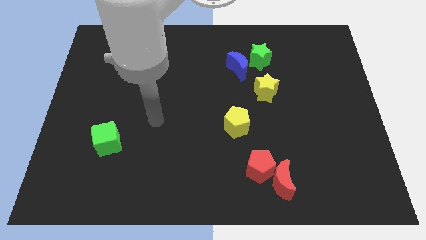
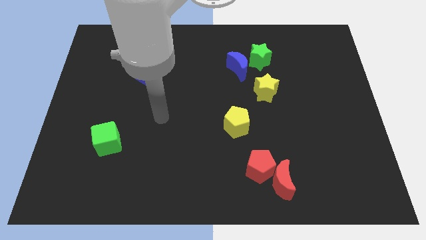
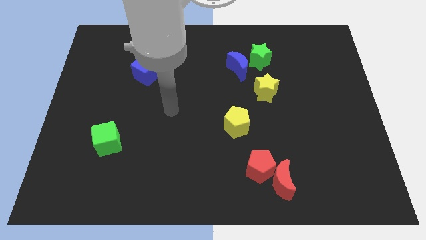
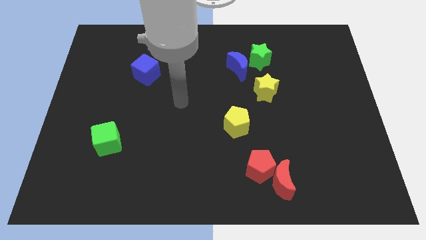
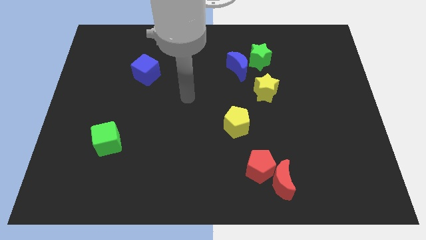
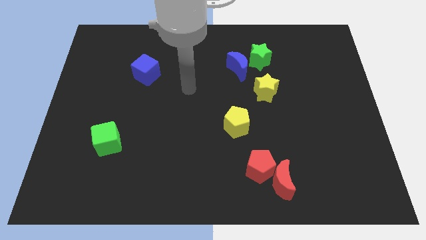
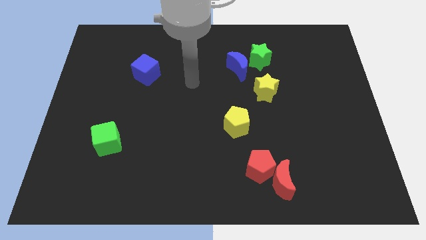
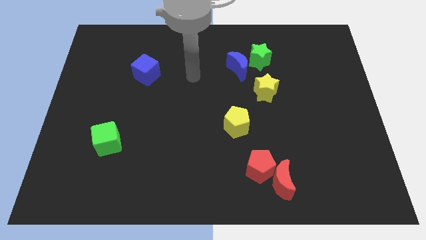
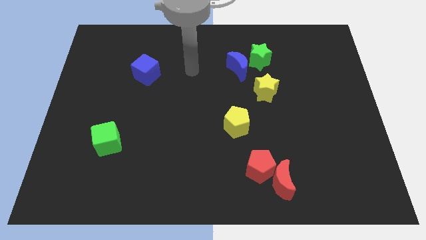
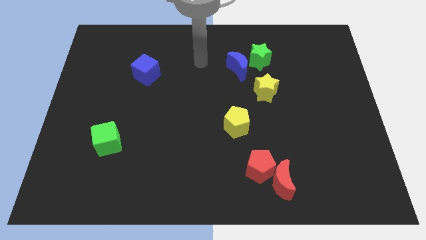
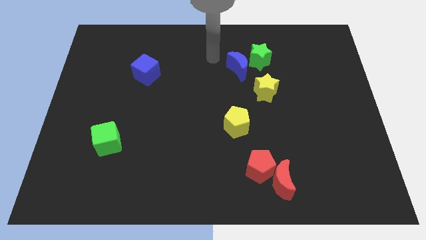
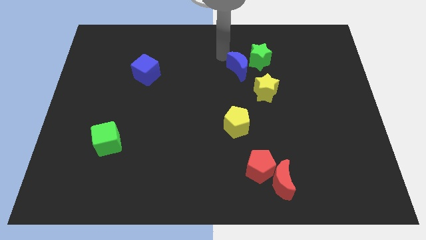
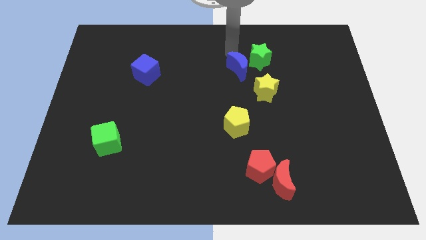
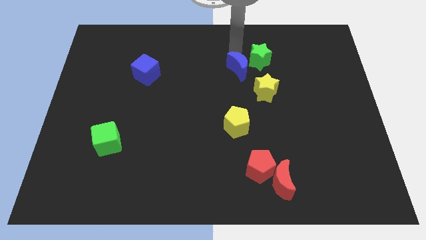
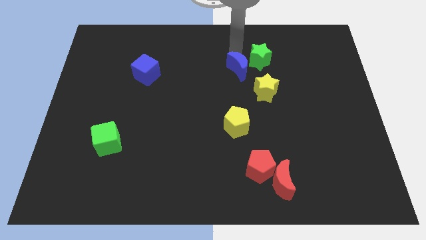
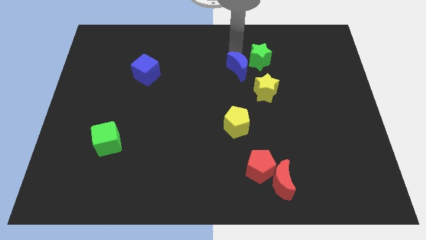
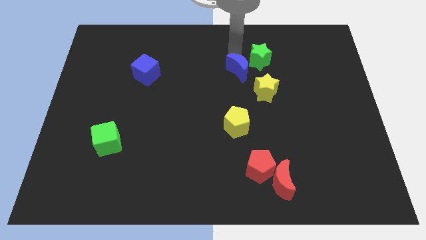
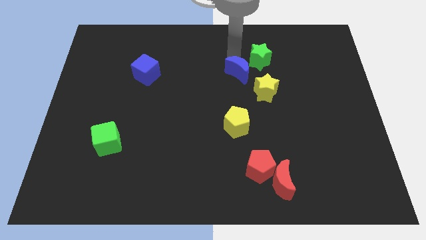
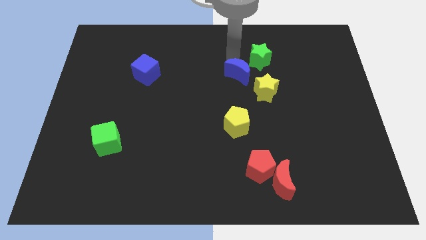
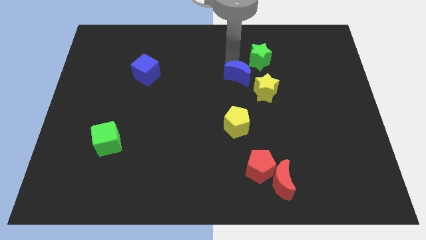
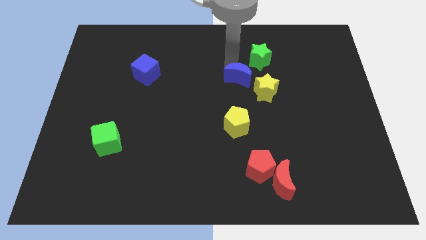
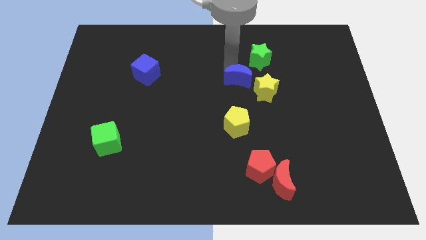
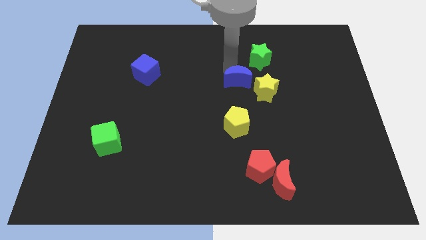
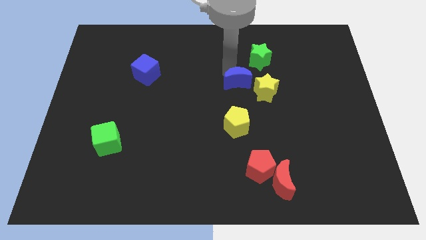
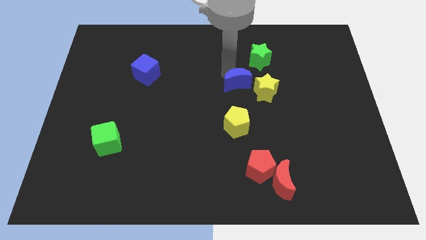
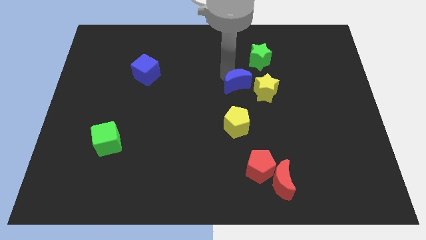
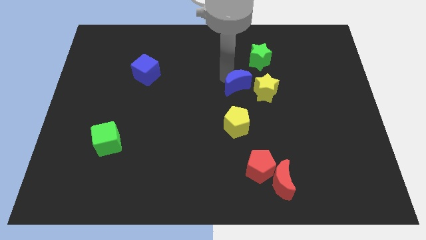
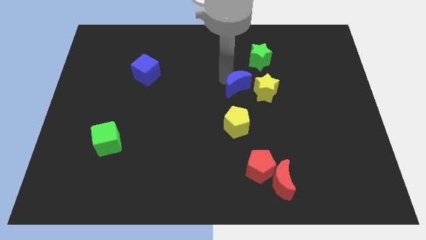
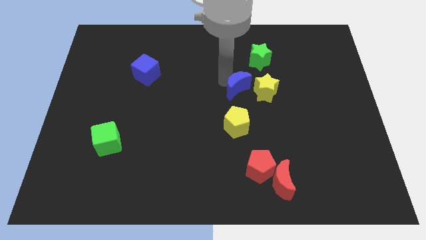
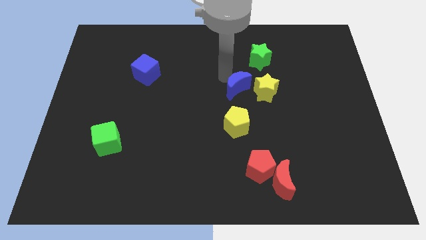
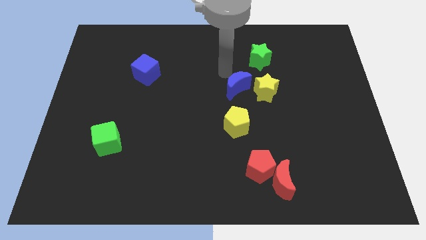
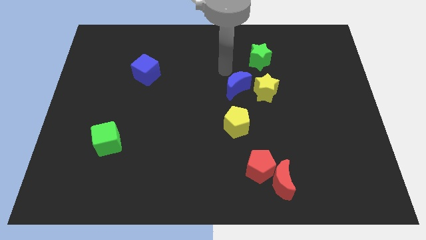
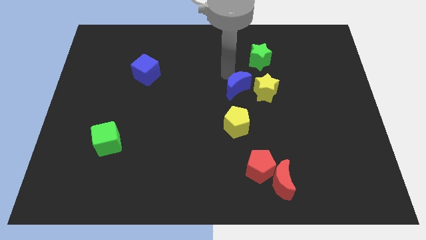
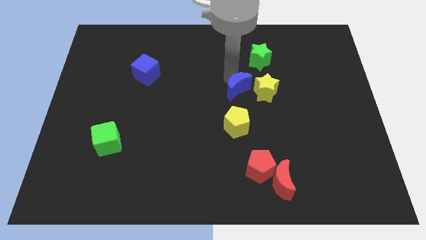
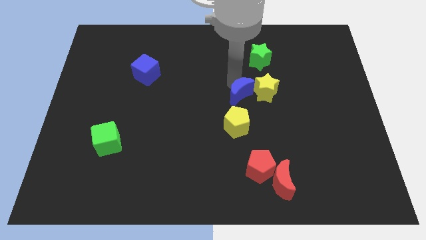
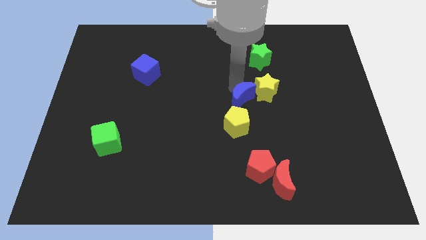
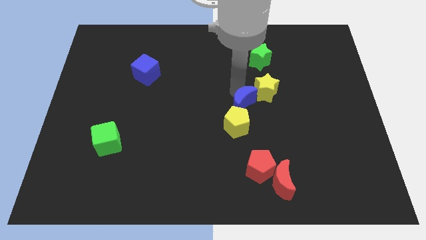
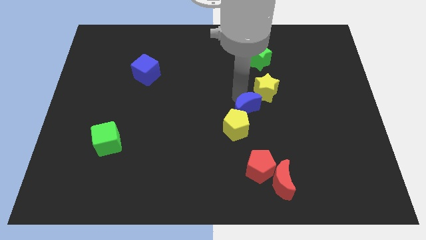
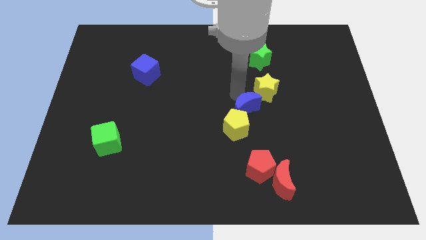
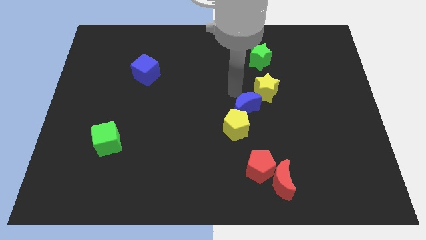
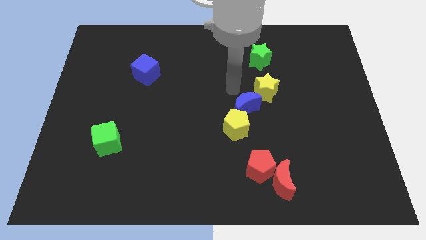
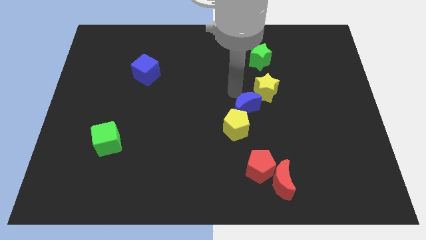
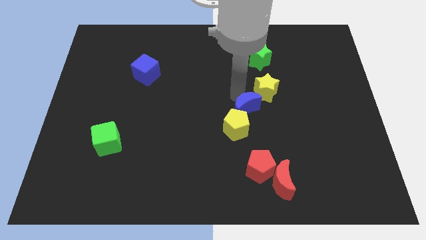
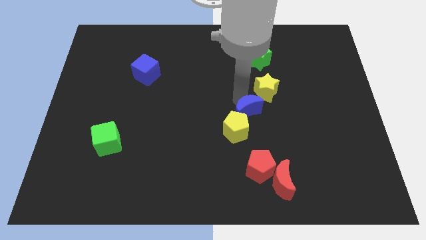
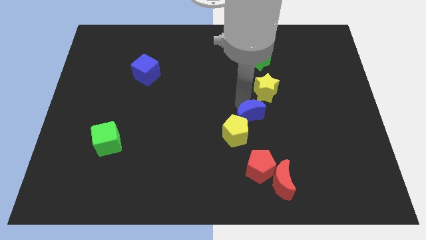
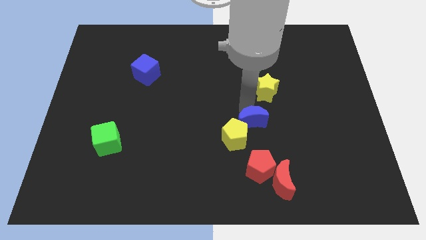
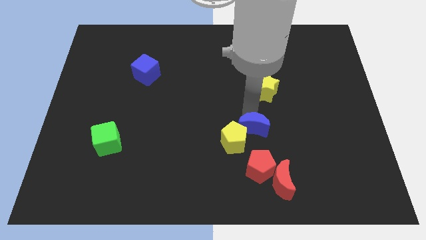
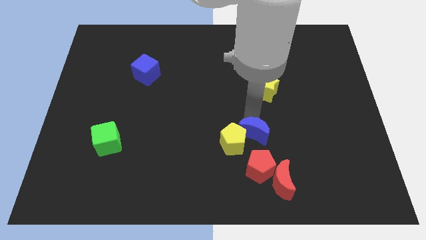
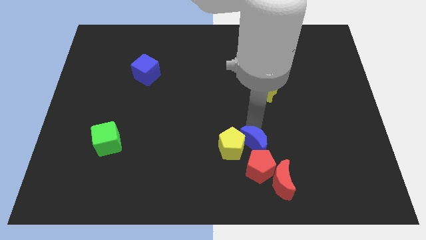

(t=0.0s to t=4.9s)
move the blue moon next to the red pentagon

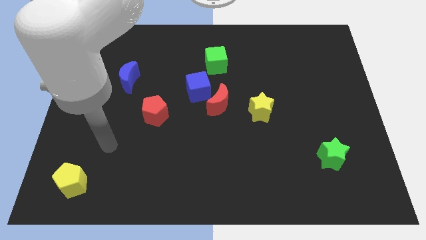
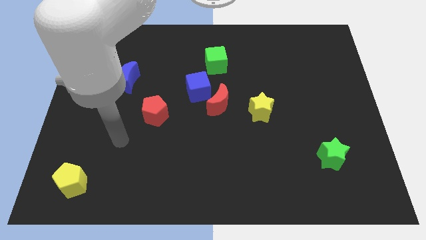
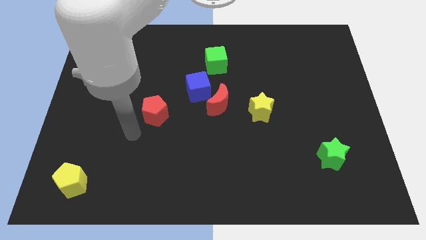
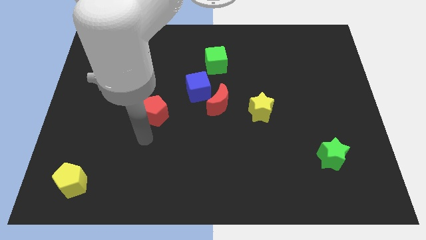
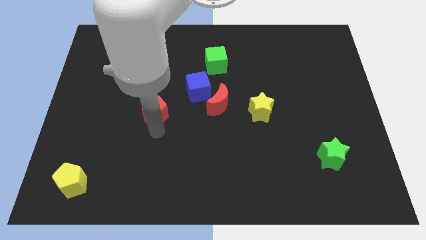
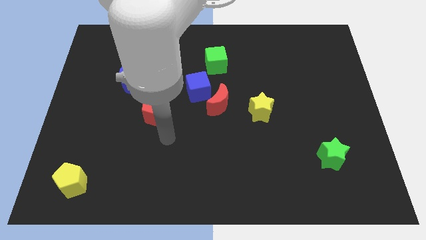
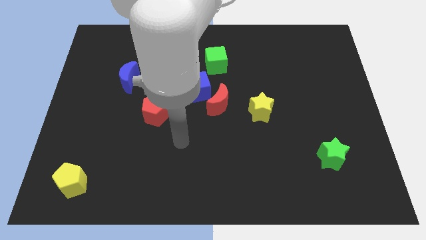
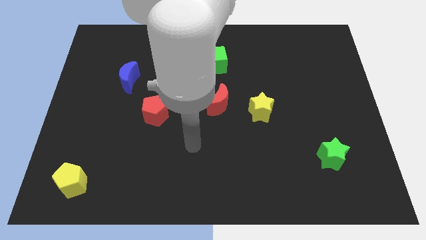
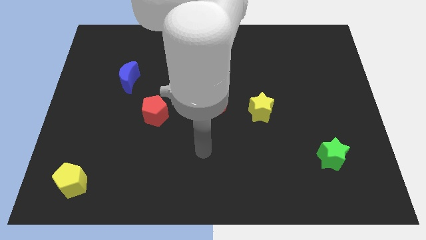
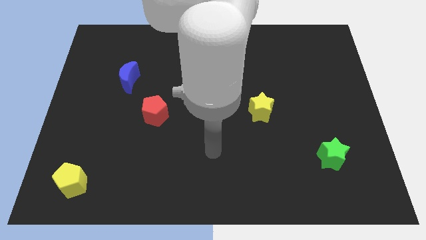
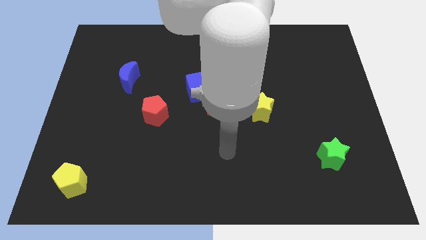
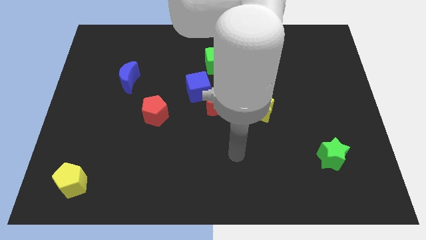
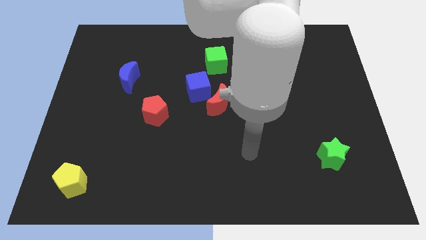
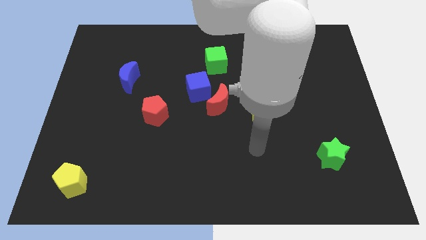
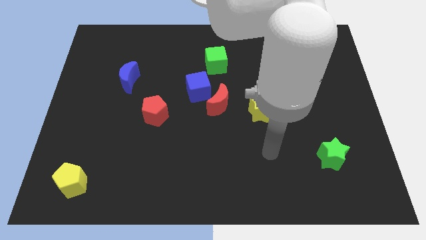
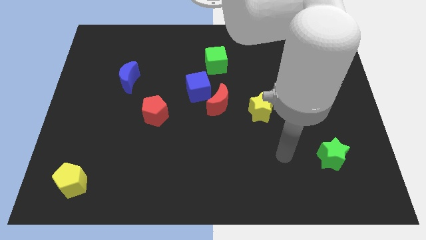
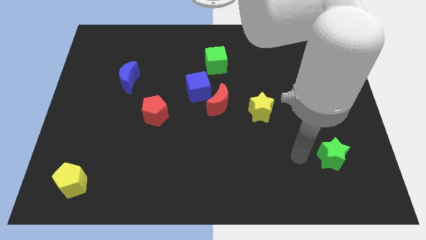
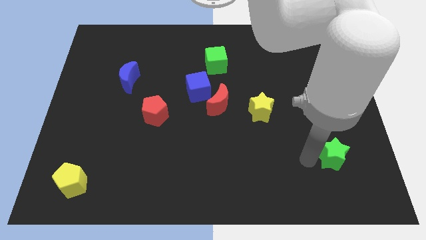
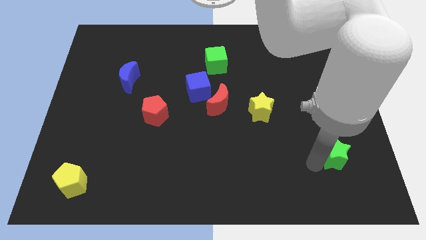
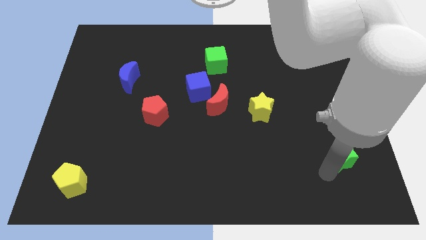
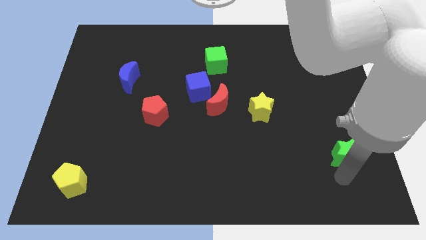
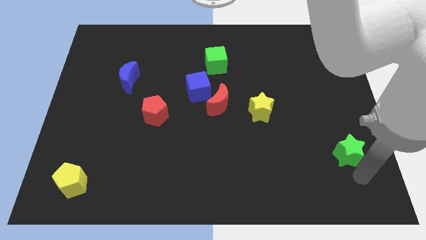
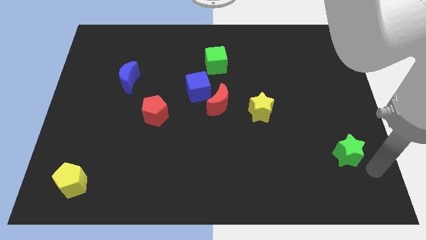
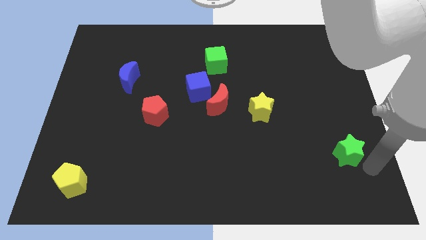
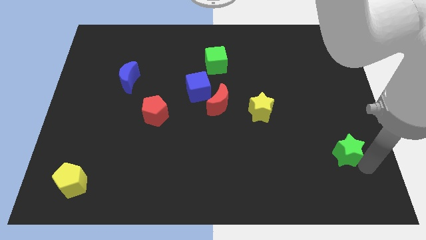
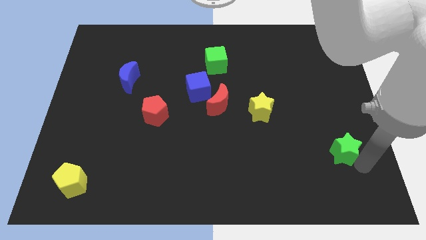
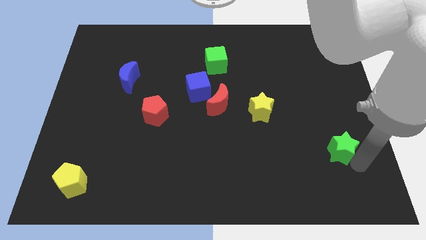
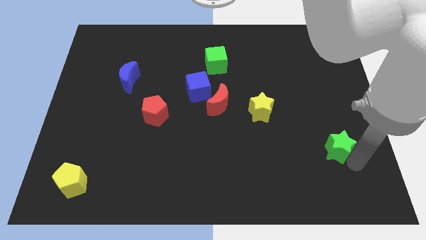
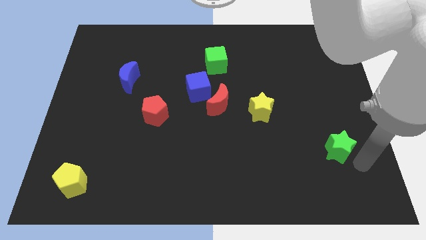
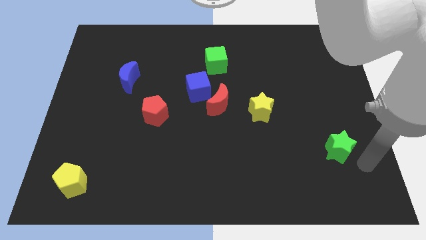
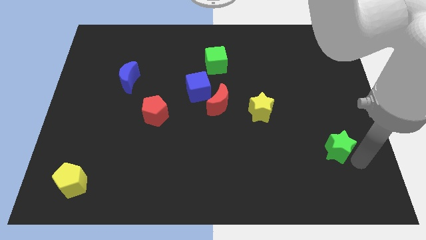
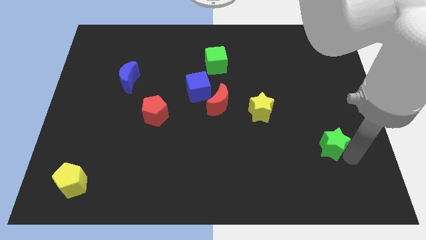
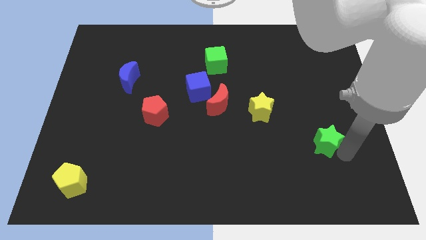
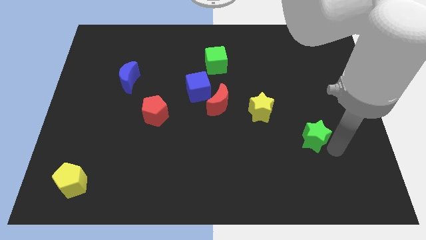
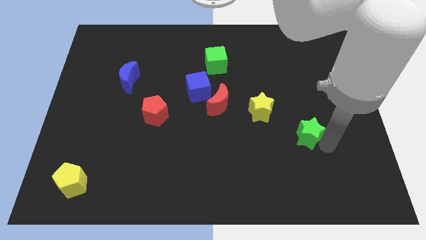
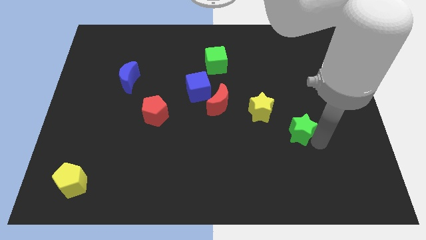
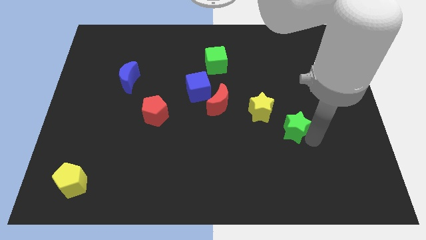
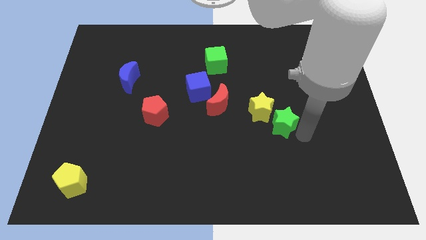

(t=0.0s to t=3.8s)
slide the green star towards the yellow star
